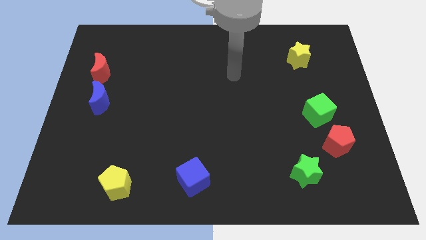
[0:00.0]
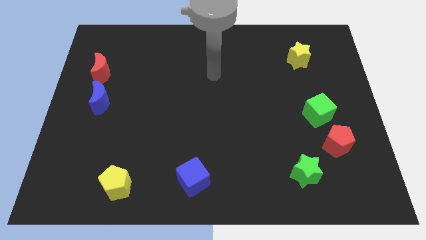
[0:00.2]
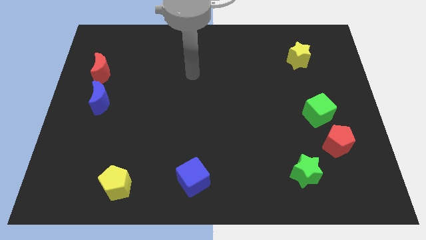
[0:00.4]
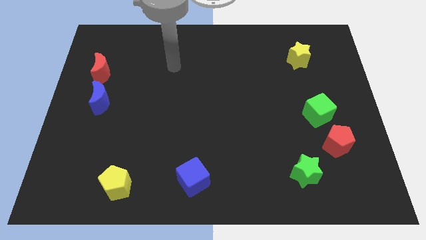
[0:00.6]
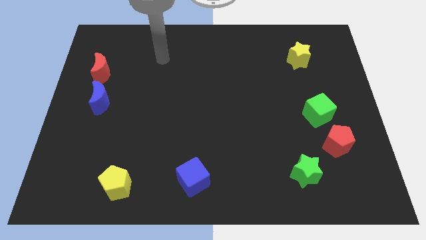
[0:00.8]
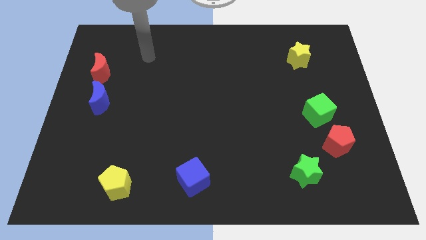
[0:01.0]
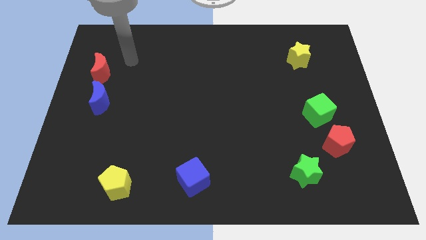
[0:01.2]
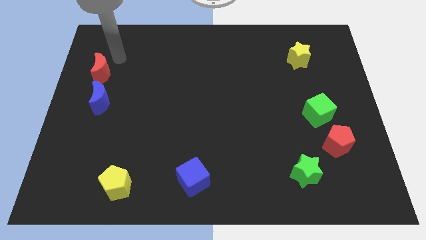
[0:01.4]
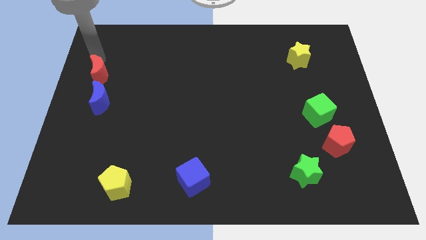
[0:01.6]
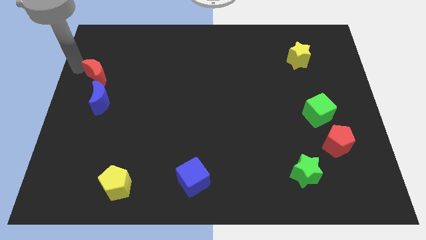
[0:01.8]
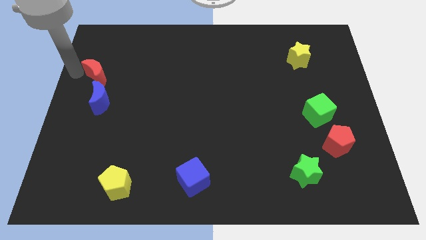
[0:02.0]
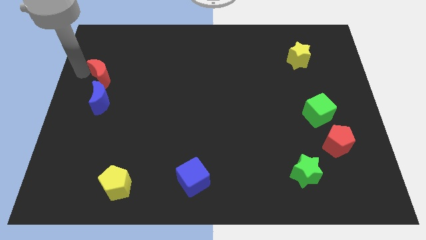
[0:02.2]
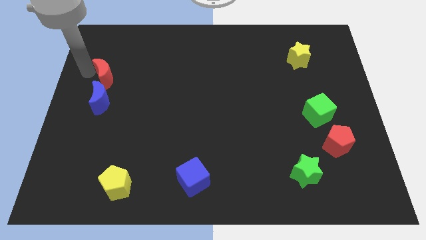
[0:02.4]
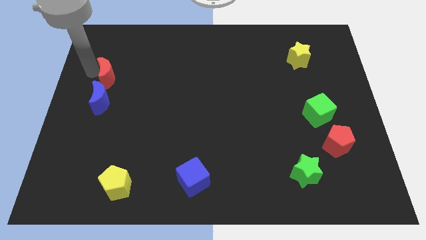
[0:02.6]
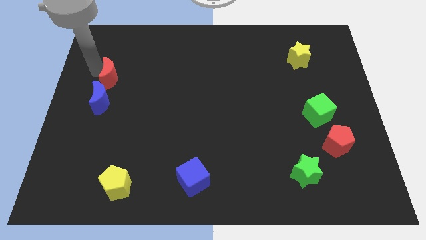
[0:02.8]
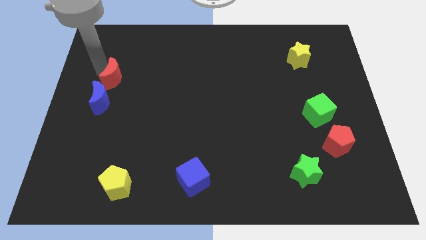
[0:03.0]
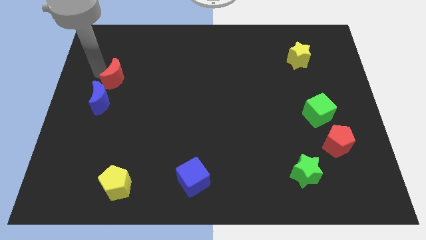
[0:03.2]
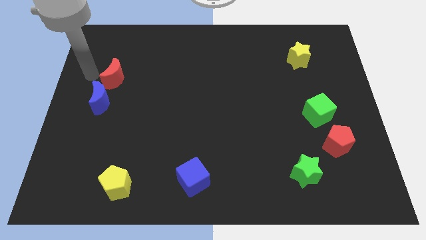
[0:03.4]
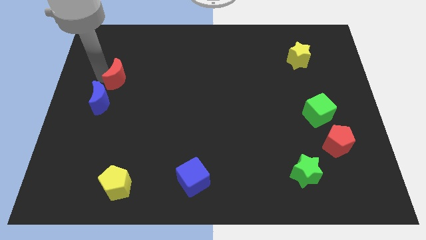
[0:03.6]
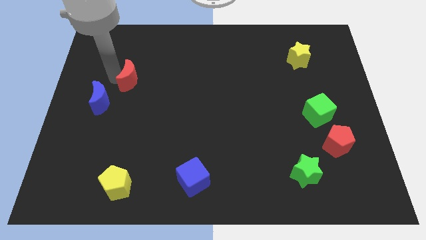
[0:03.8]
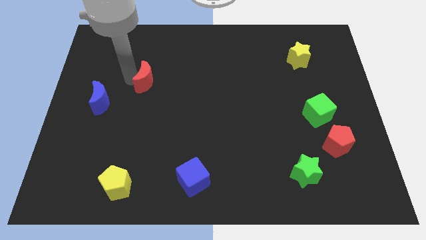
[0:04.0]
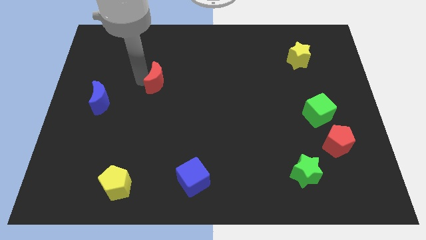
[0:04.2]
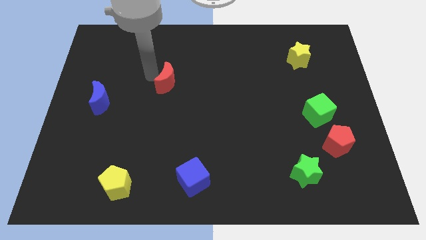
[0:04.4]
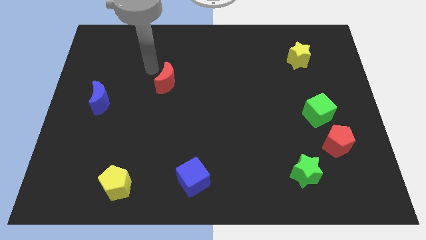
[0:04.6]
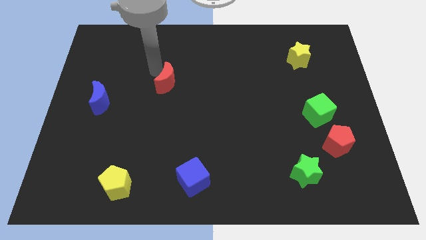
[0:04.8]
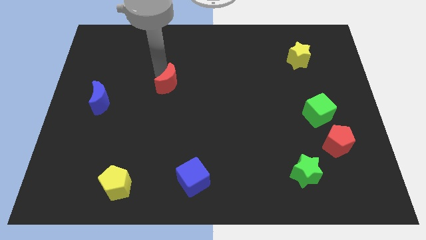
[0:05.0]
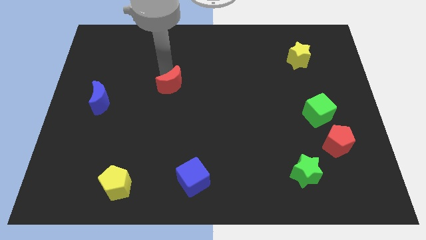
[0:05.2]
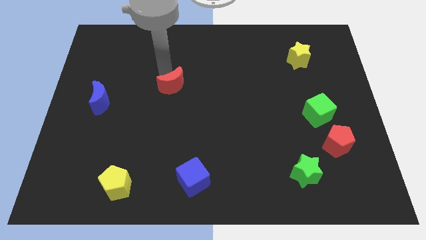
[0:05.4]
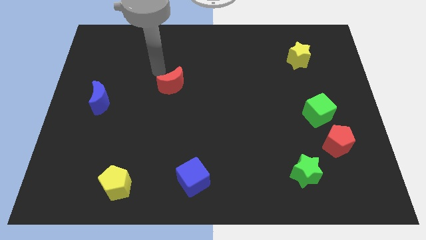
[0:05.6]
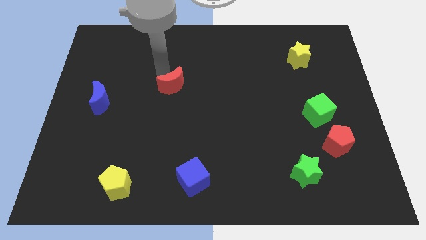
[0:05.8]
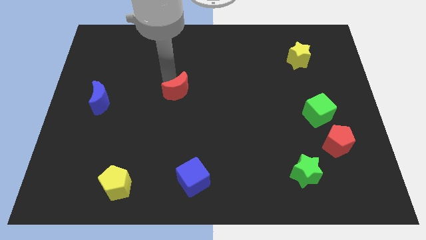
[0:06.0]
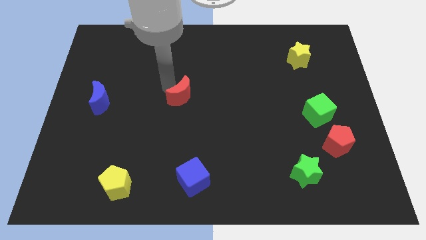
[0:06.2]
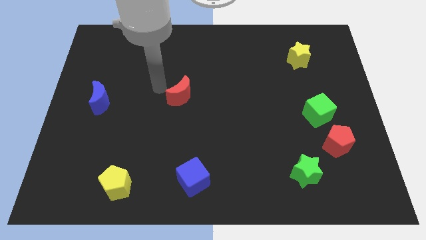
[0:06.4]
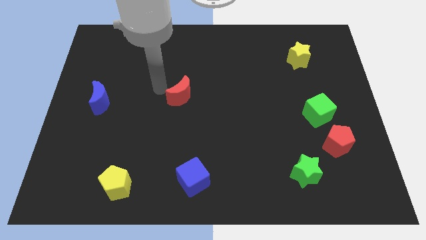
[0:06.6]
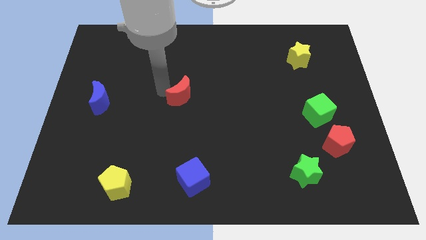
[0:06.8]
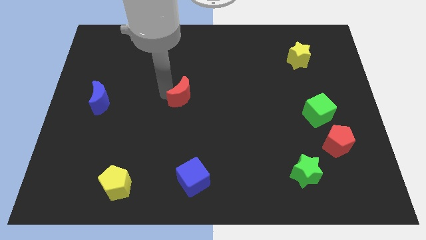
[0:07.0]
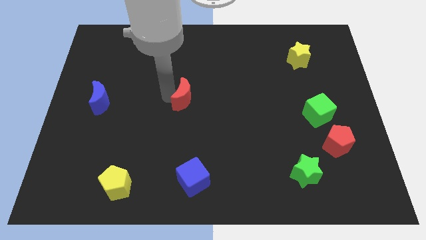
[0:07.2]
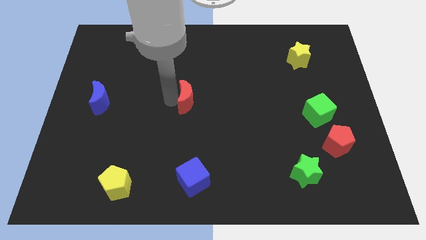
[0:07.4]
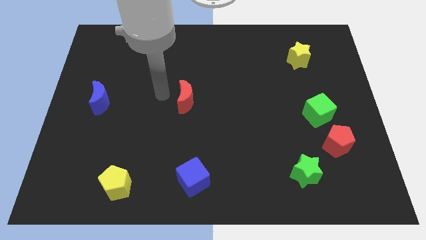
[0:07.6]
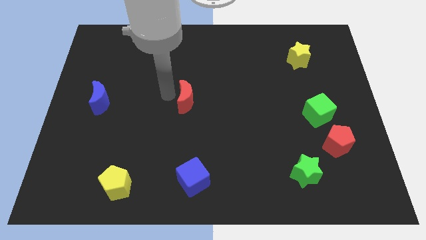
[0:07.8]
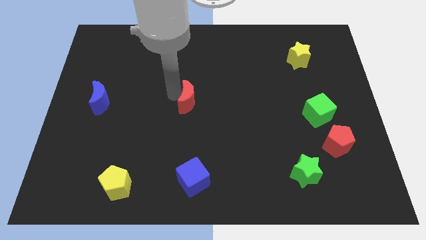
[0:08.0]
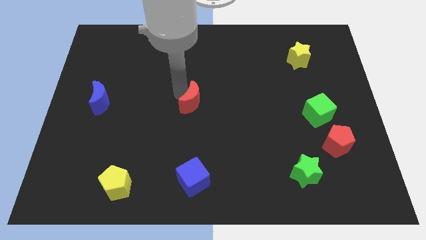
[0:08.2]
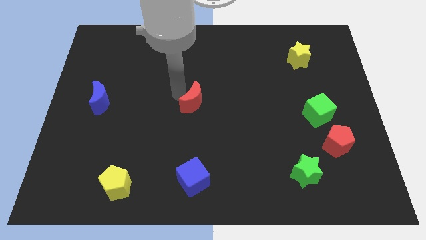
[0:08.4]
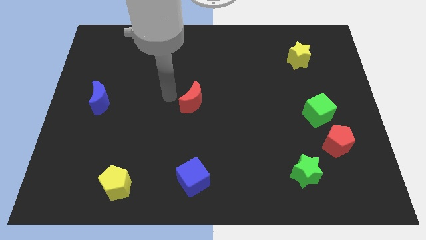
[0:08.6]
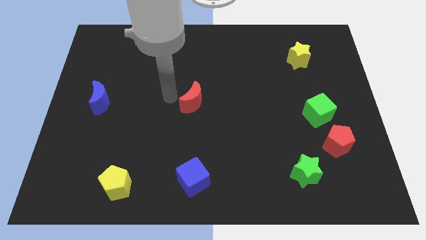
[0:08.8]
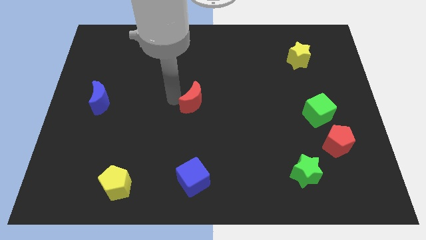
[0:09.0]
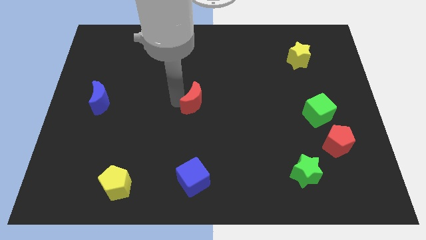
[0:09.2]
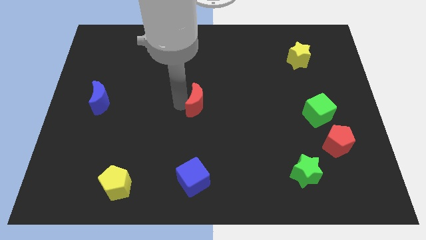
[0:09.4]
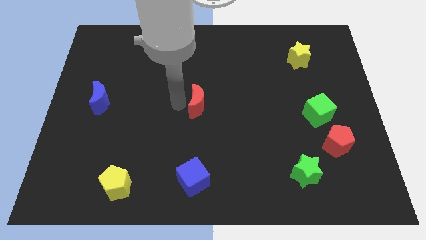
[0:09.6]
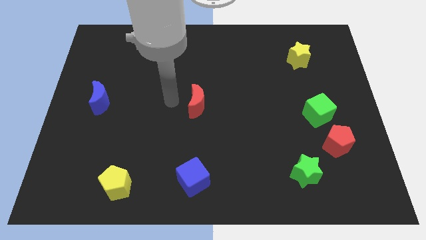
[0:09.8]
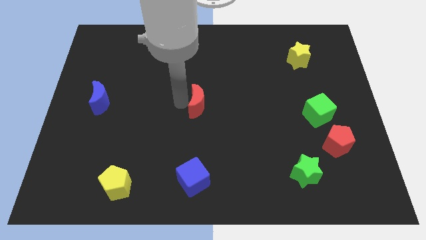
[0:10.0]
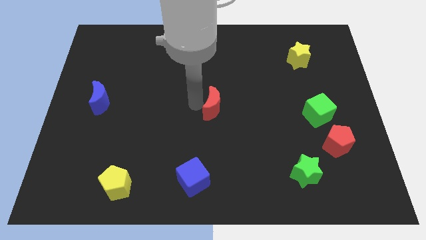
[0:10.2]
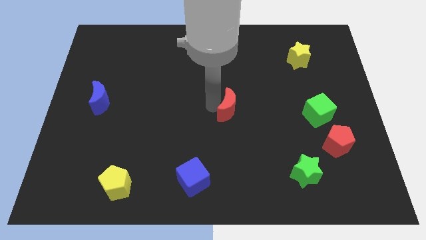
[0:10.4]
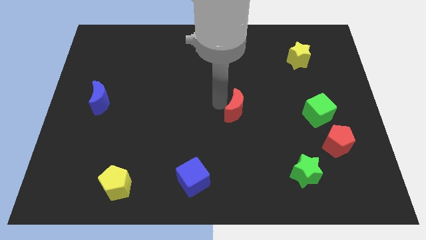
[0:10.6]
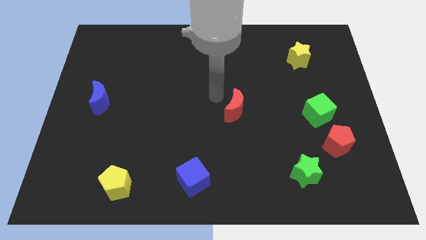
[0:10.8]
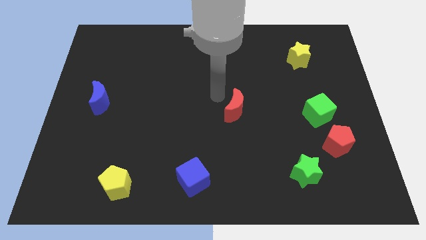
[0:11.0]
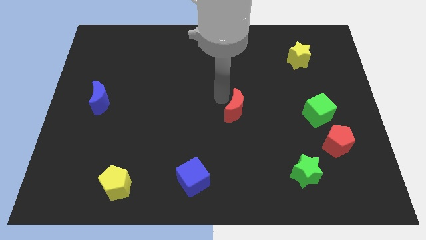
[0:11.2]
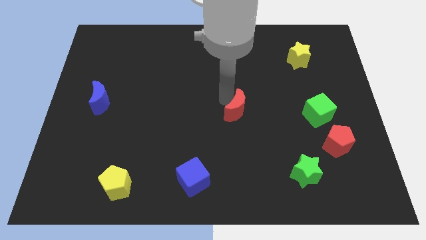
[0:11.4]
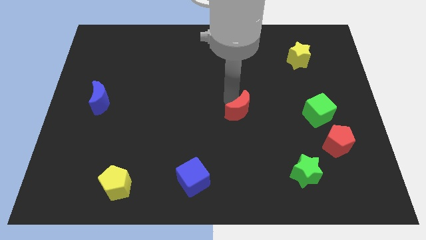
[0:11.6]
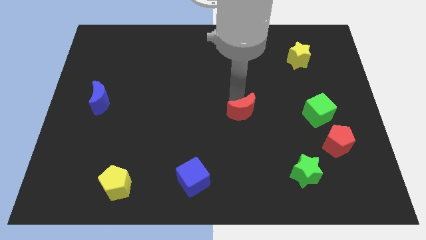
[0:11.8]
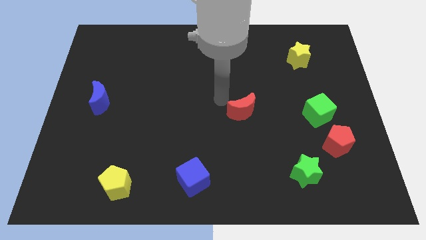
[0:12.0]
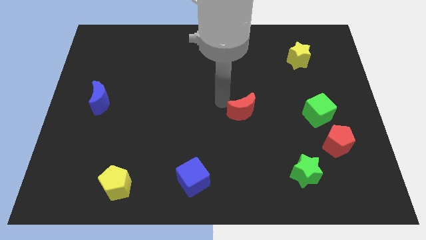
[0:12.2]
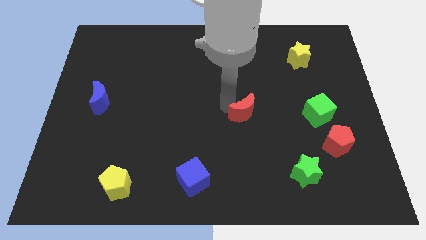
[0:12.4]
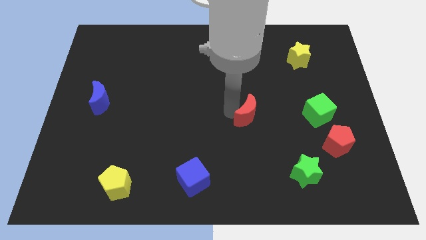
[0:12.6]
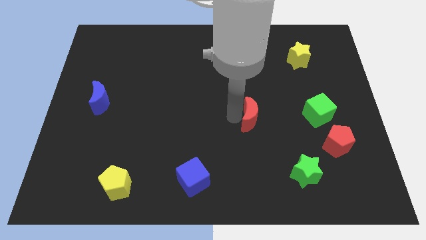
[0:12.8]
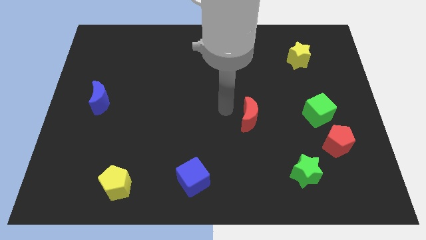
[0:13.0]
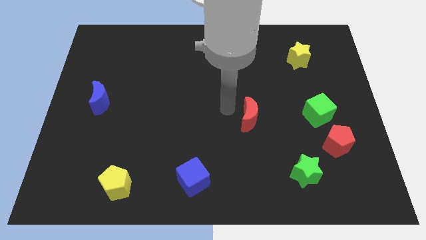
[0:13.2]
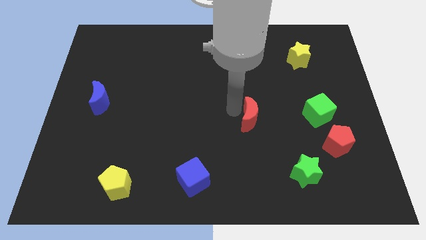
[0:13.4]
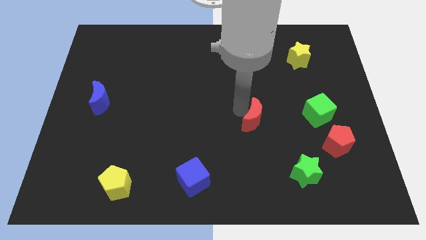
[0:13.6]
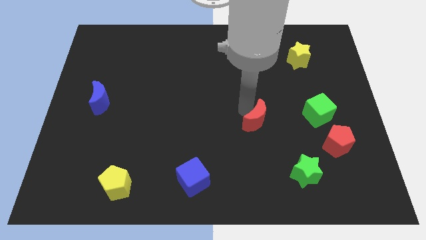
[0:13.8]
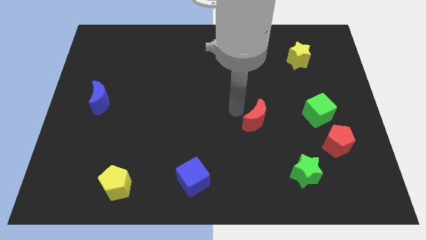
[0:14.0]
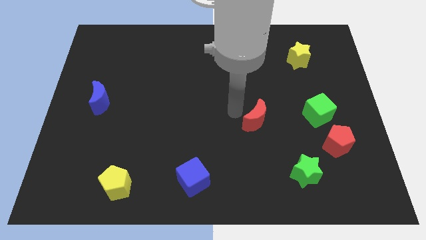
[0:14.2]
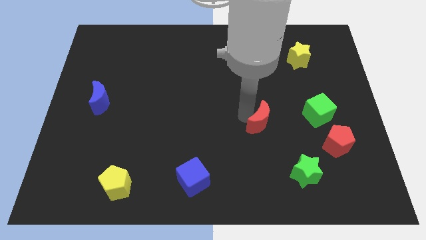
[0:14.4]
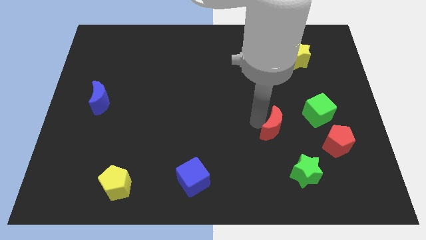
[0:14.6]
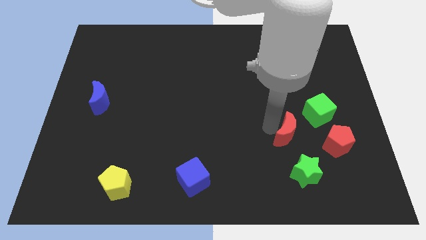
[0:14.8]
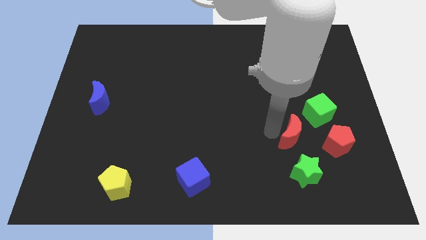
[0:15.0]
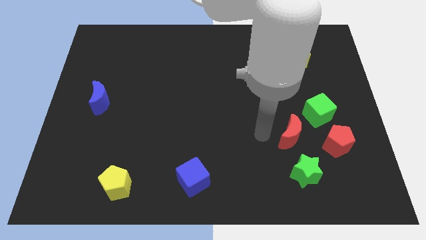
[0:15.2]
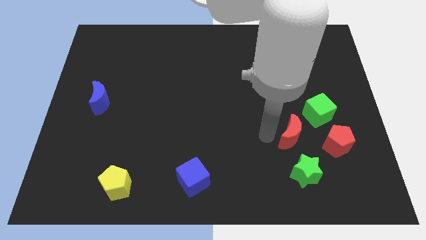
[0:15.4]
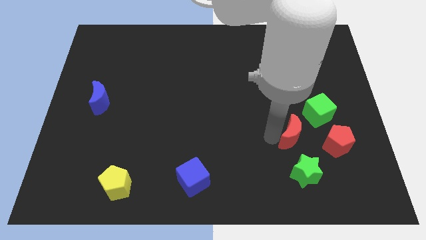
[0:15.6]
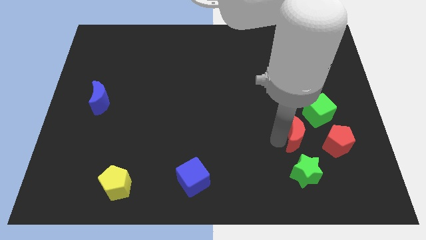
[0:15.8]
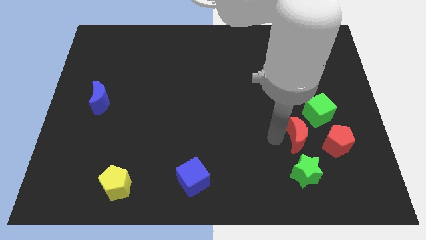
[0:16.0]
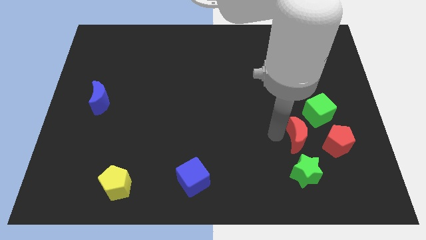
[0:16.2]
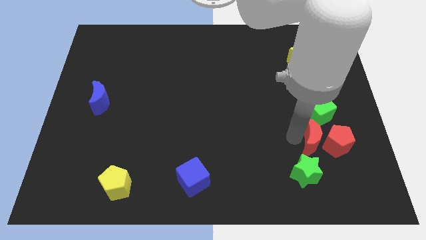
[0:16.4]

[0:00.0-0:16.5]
move the red moon next to the red pentagon
